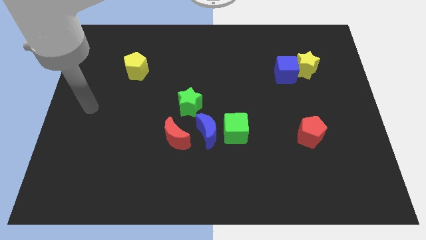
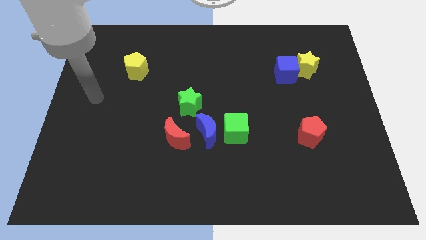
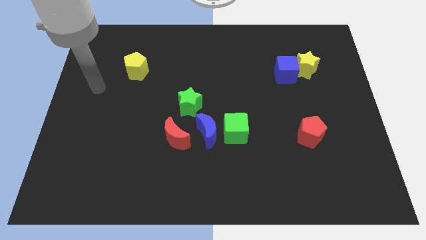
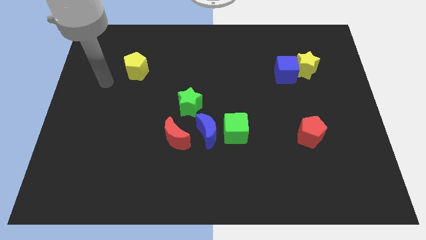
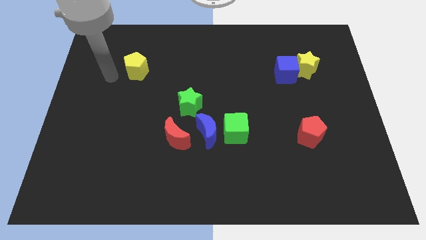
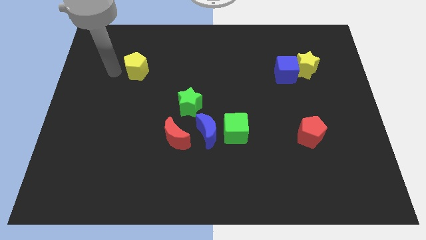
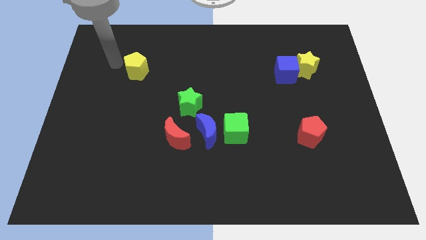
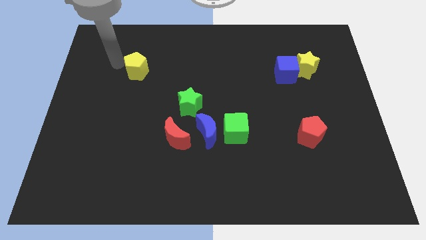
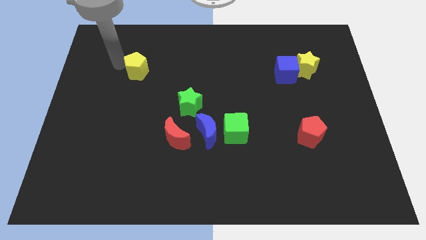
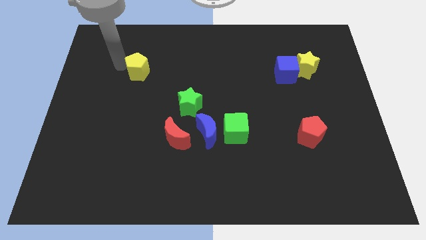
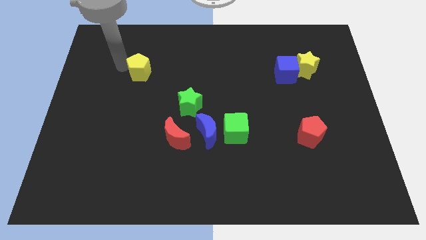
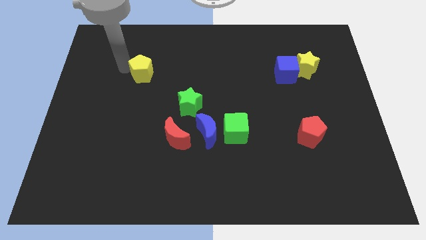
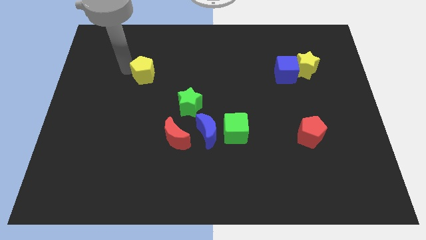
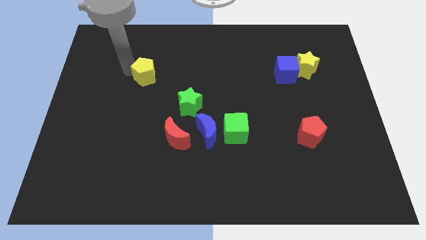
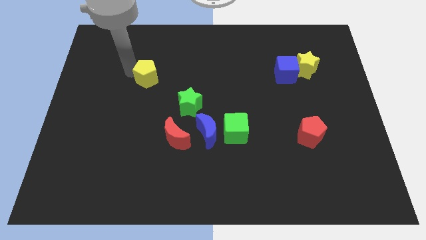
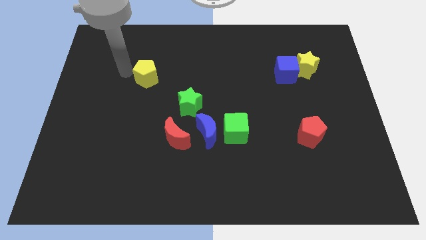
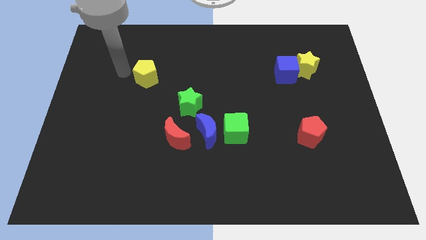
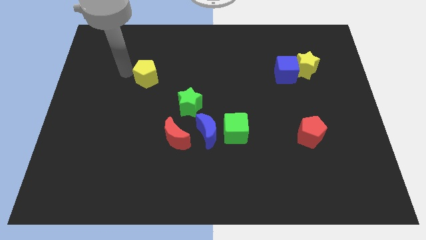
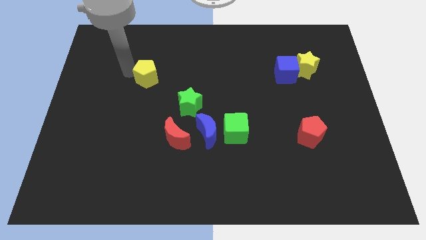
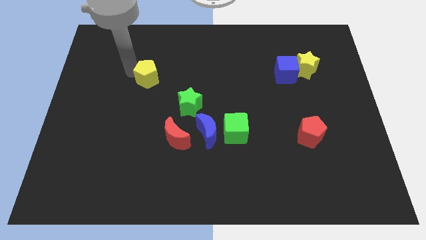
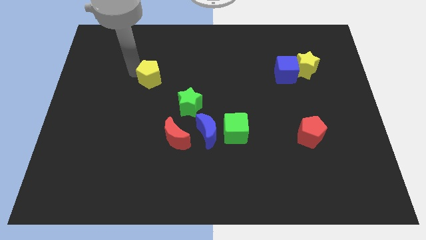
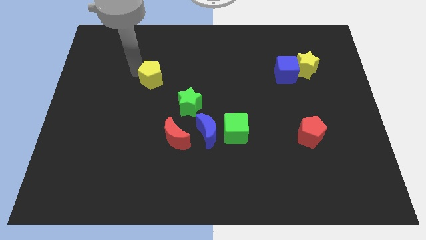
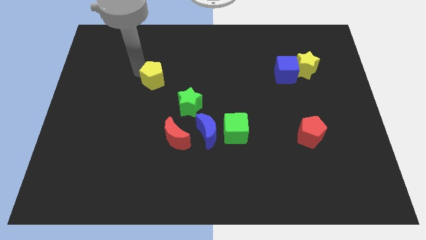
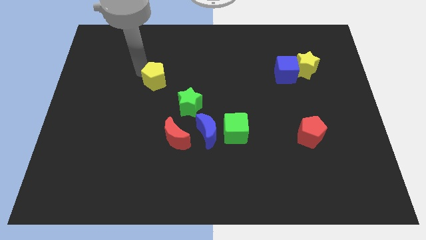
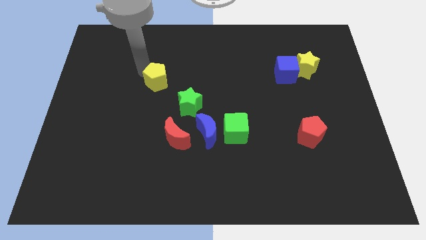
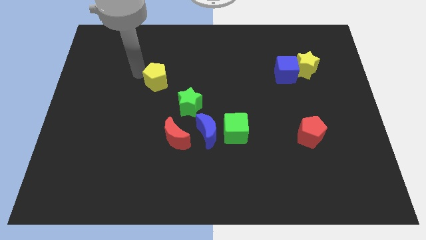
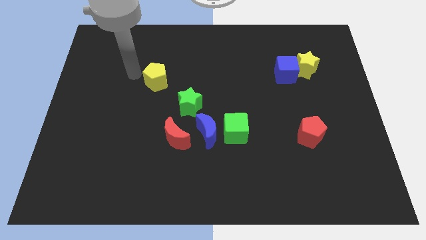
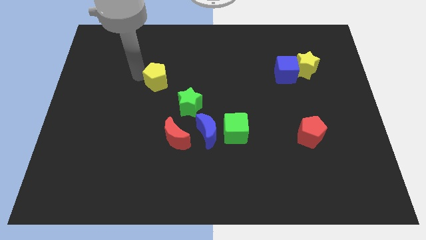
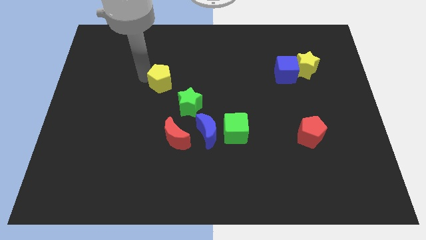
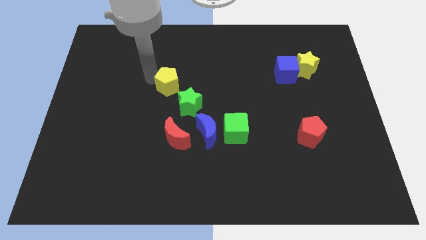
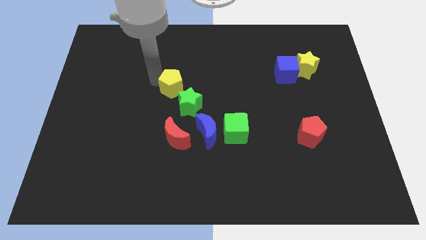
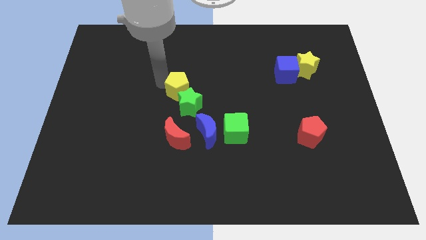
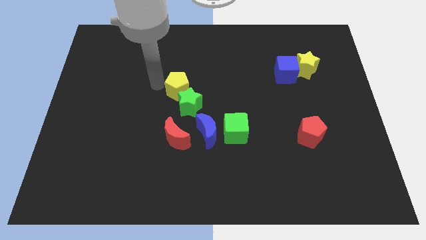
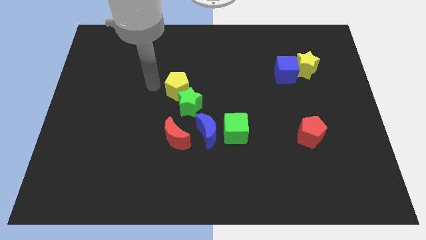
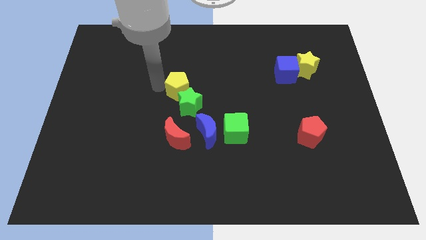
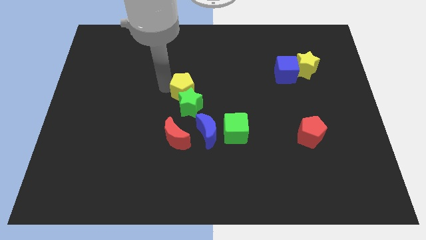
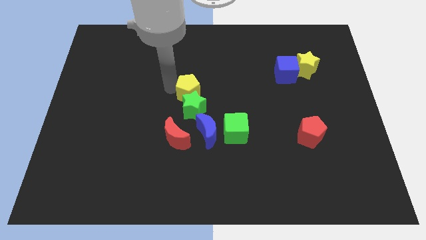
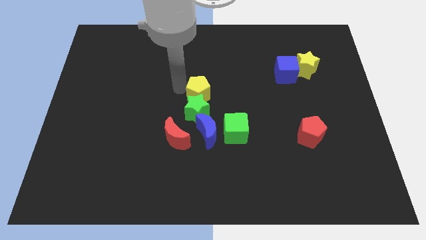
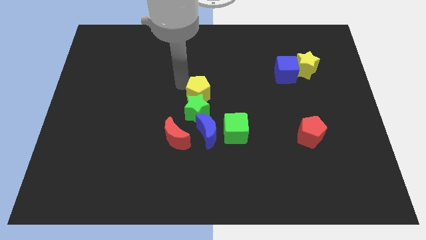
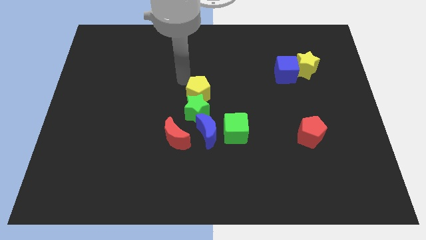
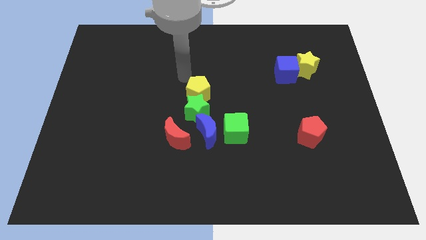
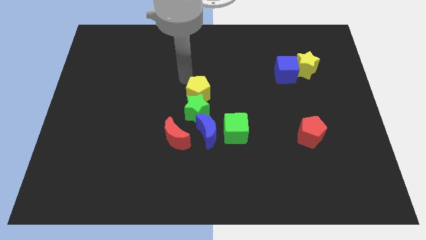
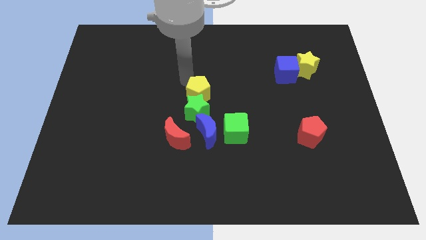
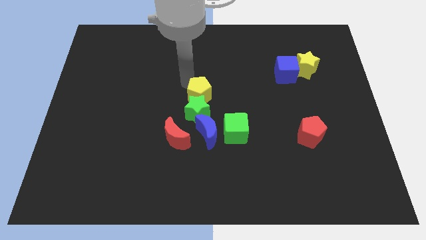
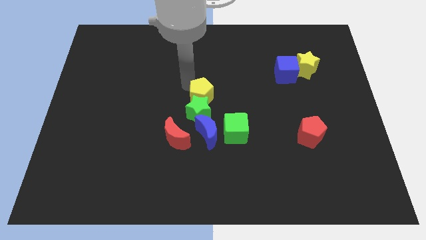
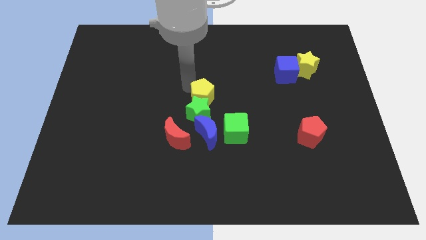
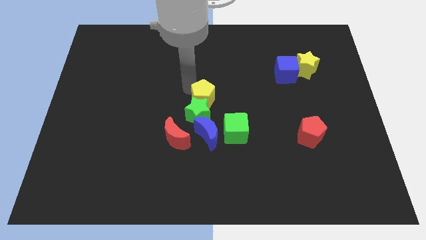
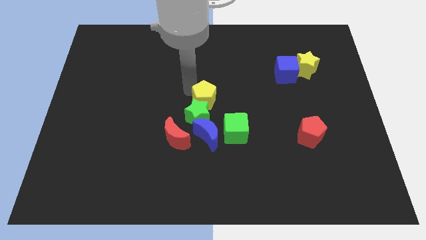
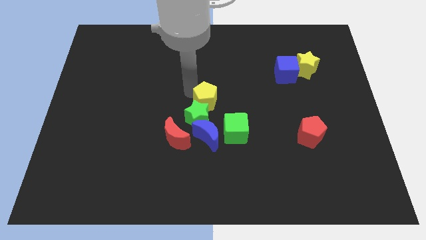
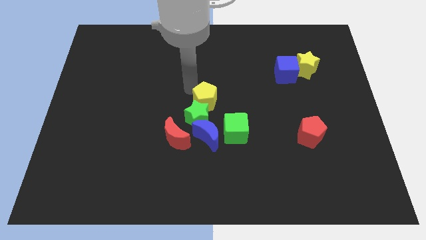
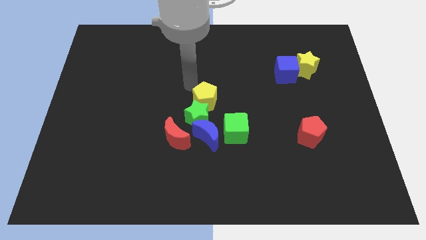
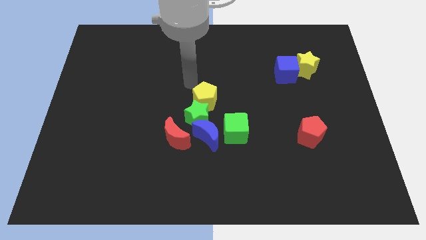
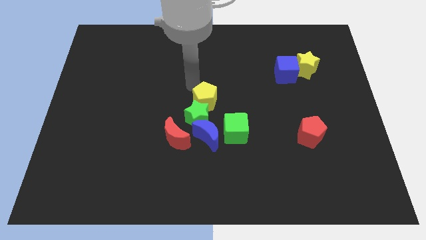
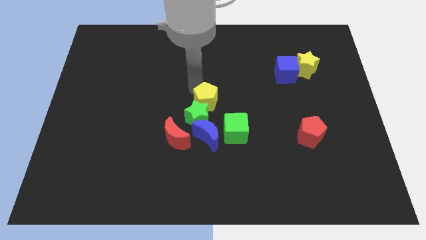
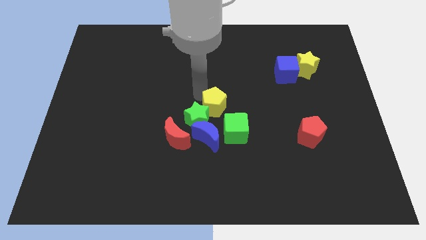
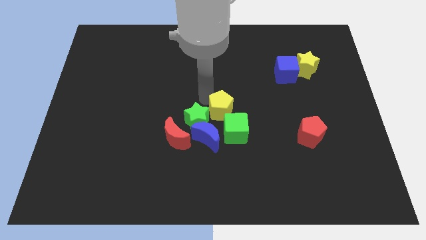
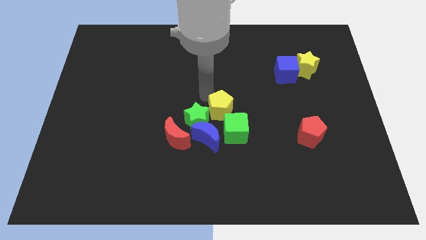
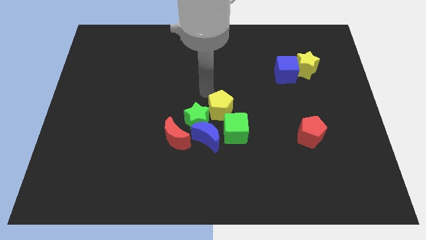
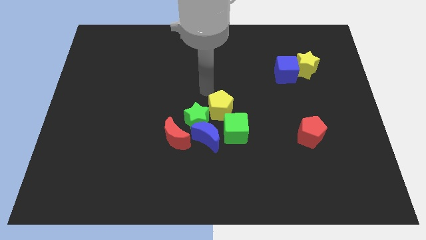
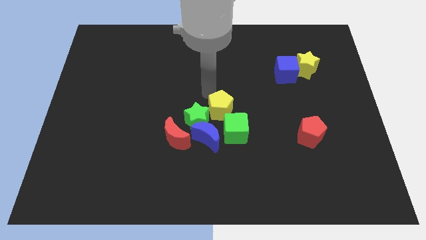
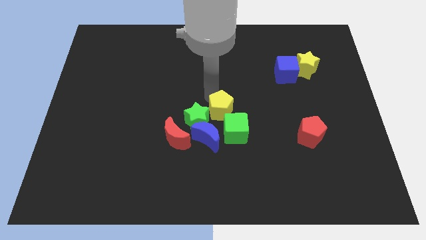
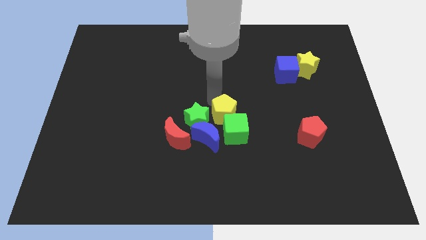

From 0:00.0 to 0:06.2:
move the yellow pentagon towards the green cube

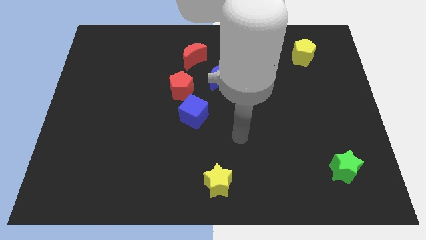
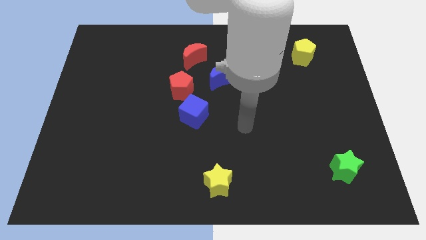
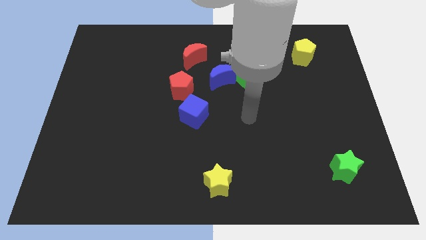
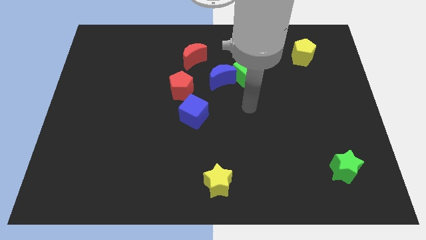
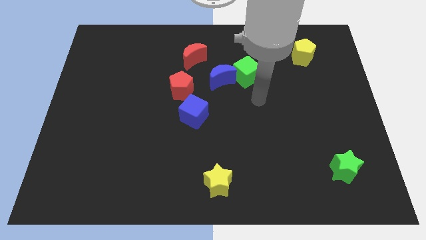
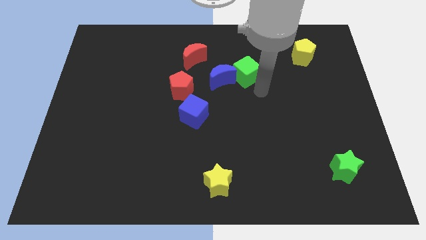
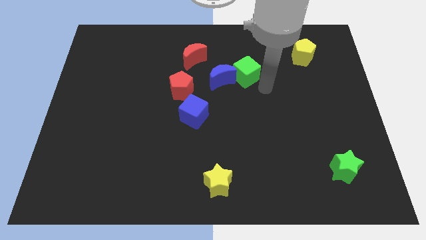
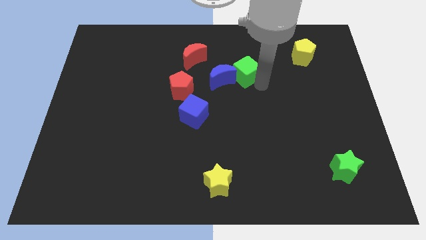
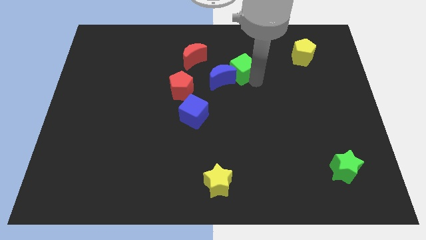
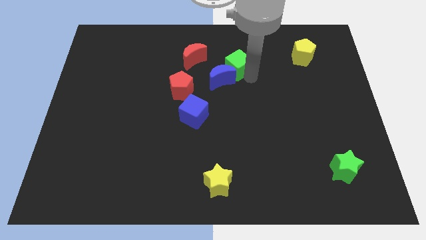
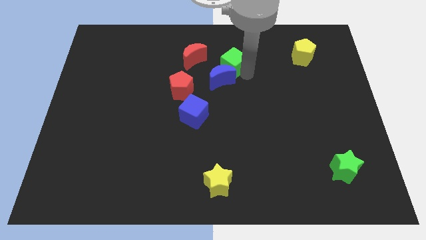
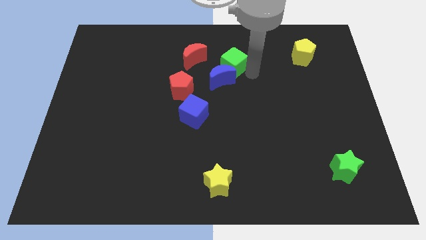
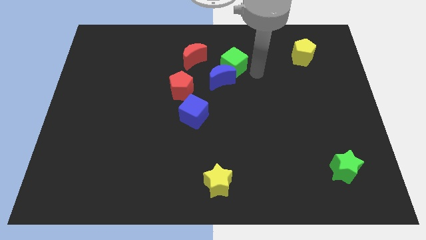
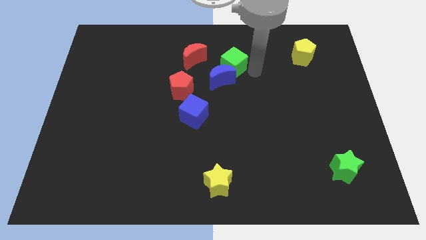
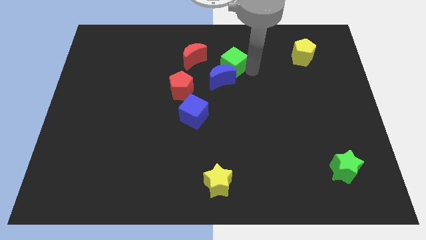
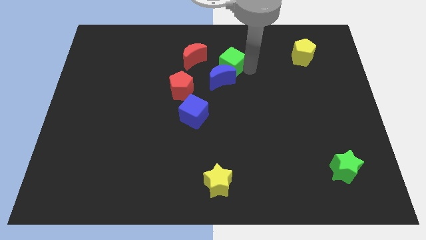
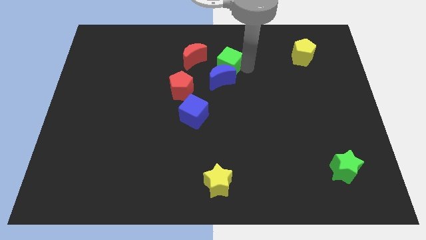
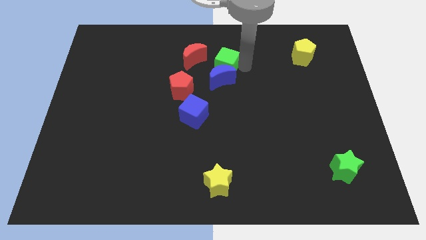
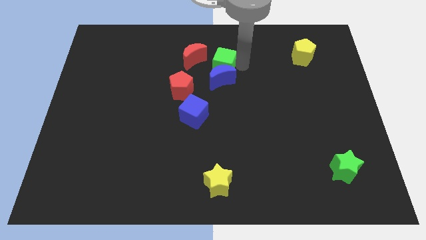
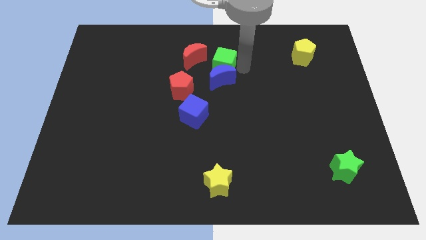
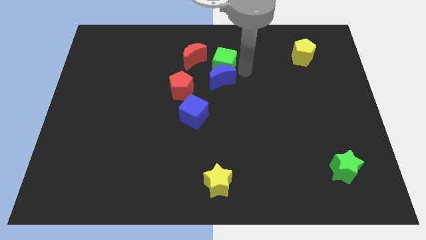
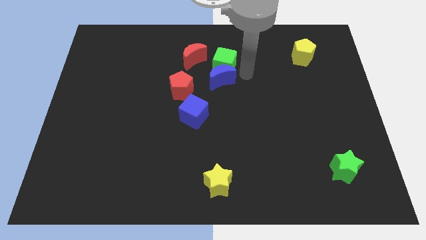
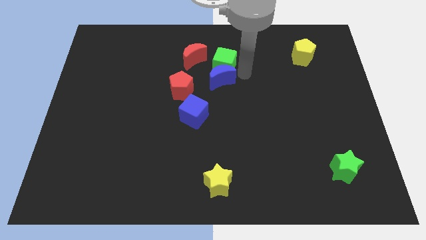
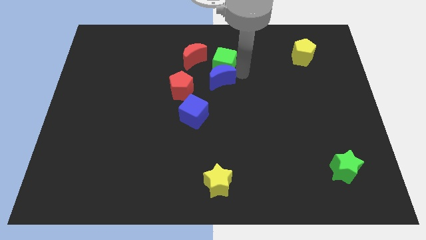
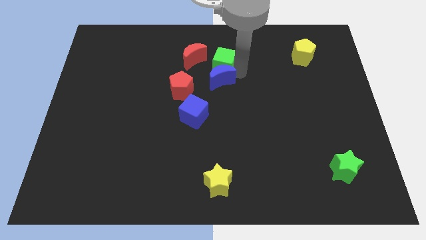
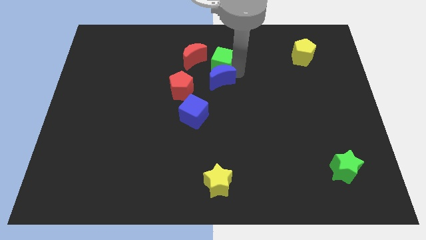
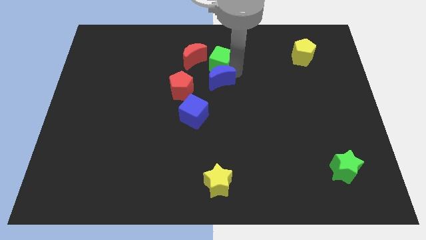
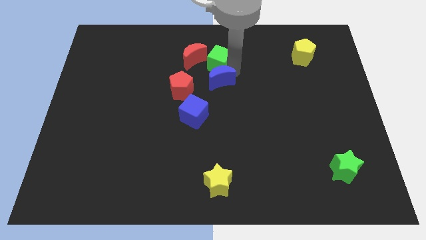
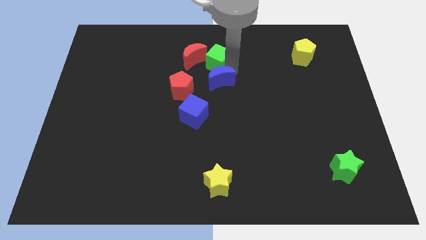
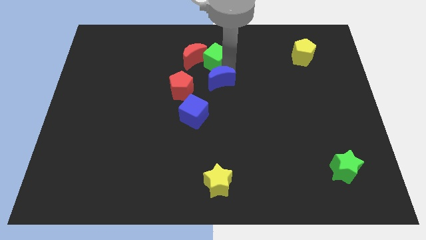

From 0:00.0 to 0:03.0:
push the green cube next to the red moon
